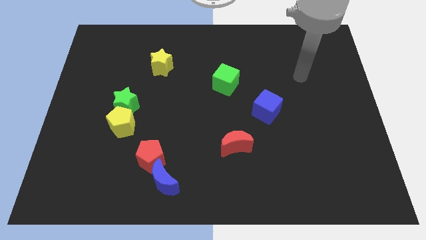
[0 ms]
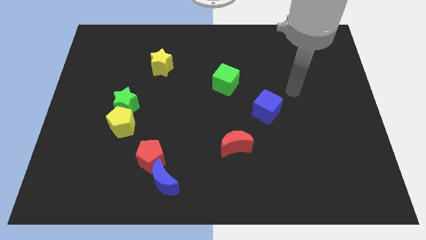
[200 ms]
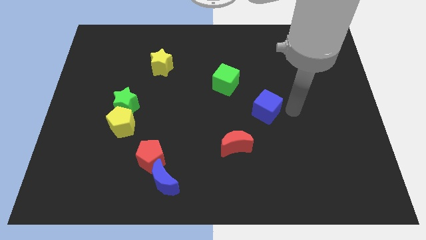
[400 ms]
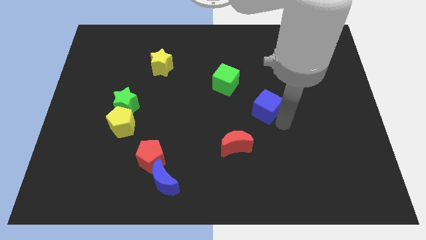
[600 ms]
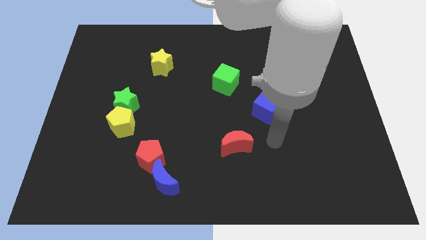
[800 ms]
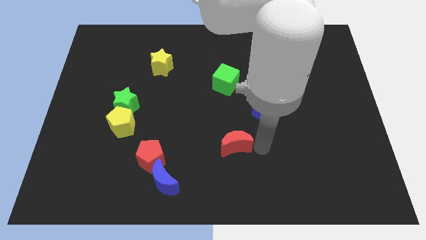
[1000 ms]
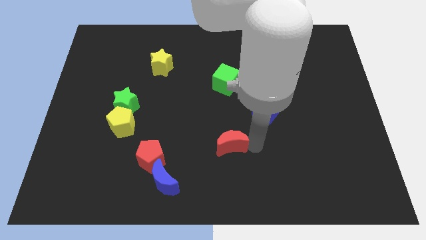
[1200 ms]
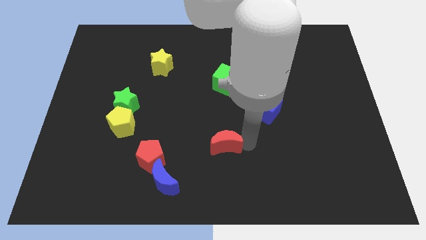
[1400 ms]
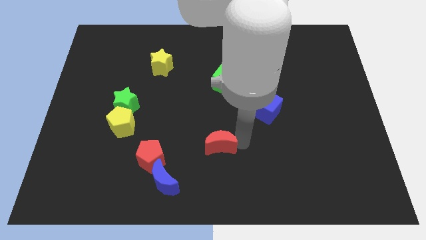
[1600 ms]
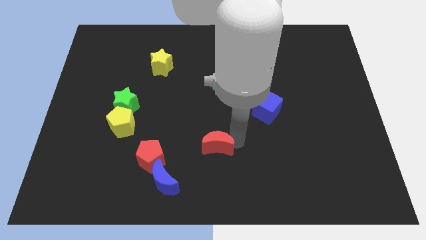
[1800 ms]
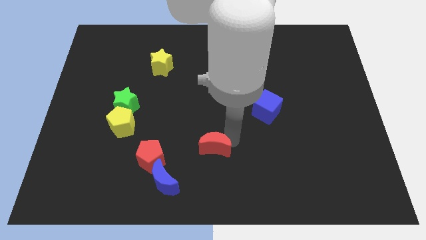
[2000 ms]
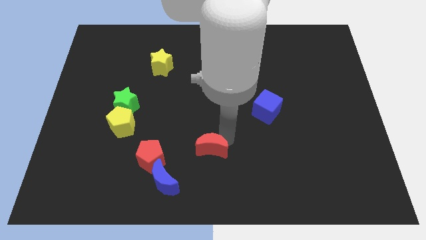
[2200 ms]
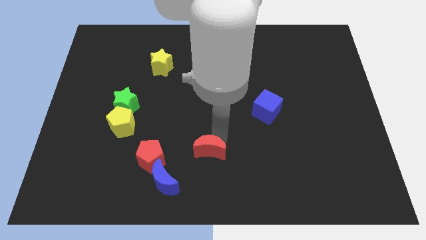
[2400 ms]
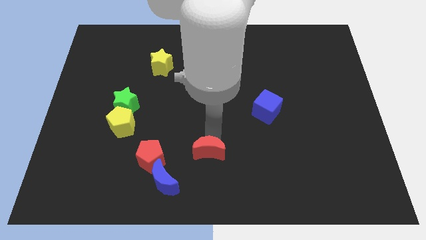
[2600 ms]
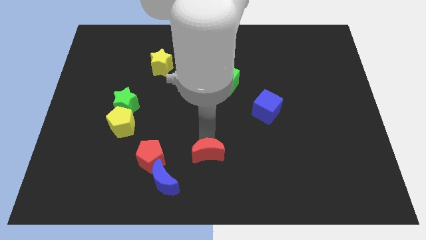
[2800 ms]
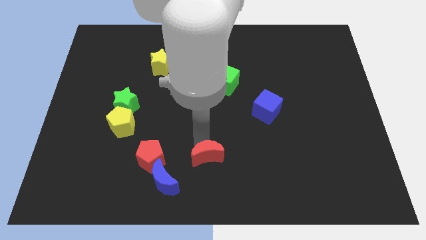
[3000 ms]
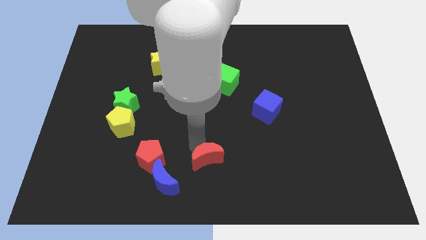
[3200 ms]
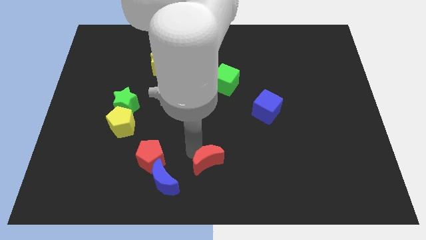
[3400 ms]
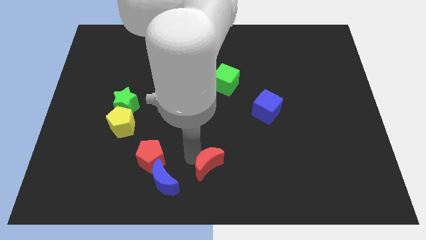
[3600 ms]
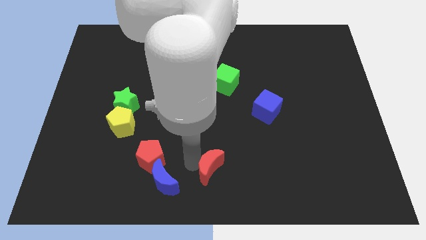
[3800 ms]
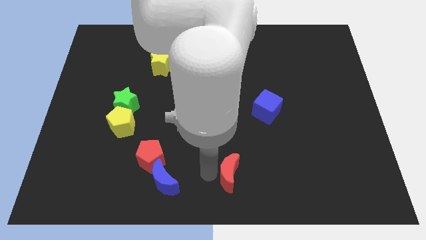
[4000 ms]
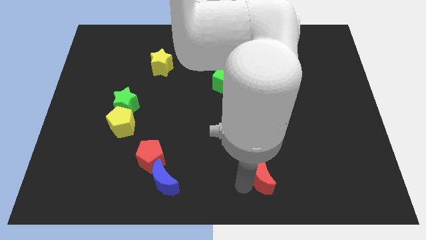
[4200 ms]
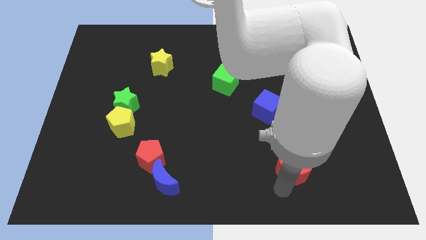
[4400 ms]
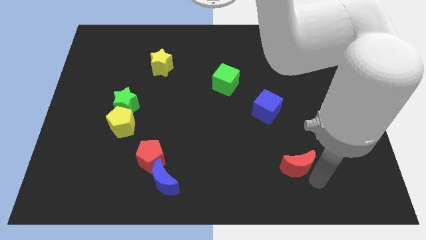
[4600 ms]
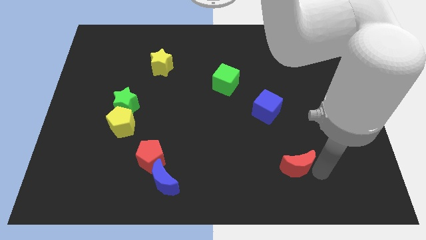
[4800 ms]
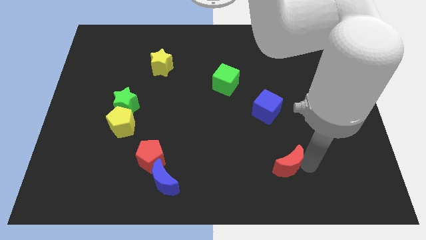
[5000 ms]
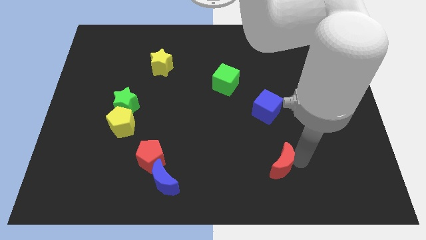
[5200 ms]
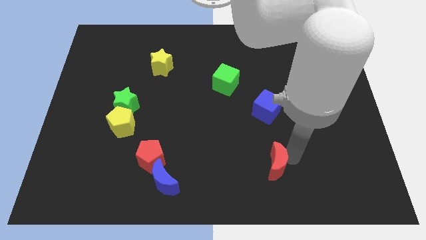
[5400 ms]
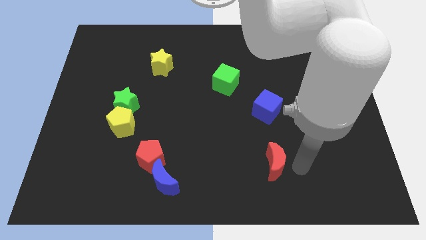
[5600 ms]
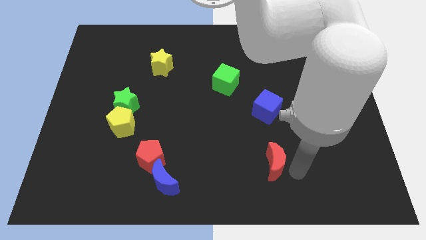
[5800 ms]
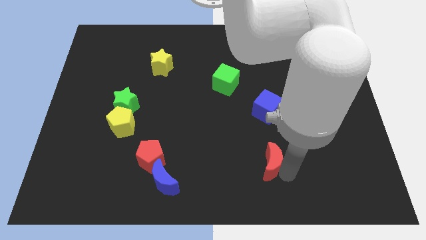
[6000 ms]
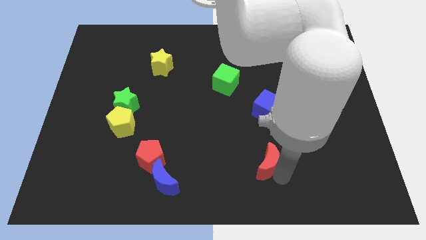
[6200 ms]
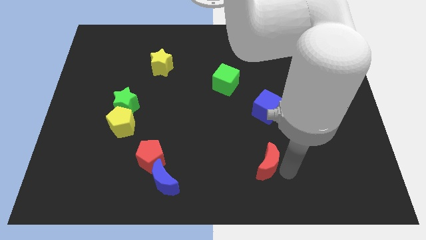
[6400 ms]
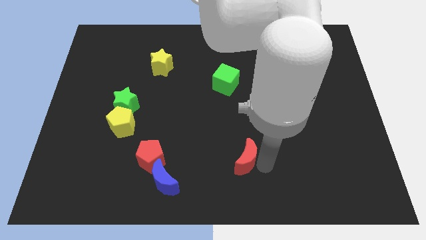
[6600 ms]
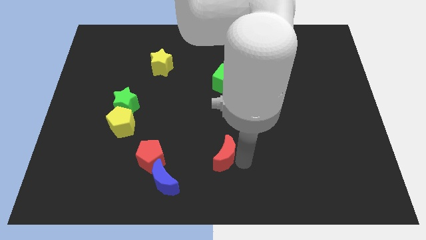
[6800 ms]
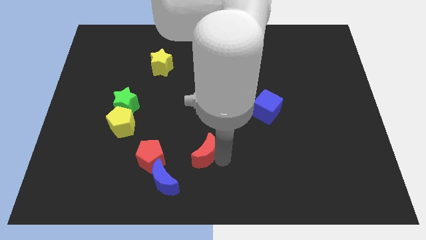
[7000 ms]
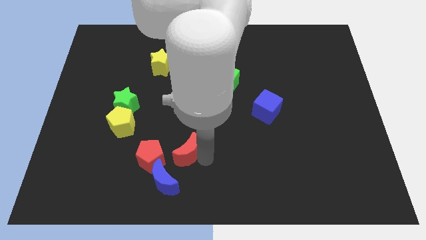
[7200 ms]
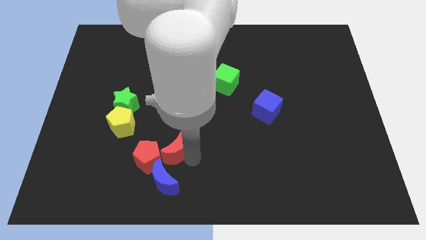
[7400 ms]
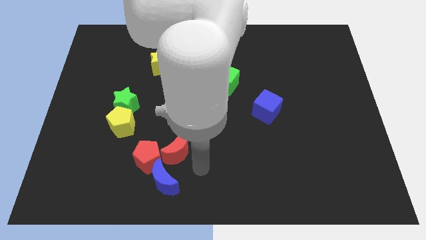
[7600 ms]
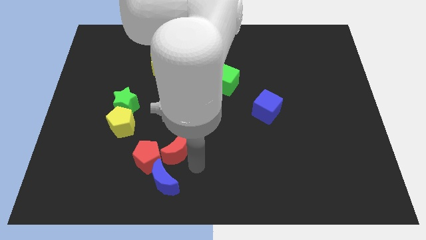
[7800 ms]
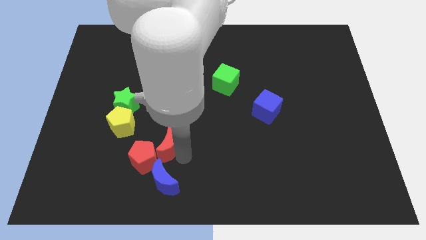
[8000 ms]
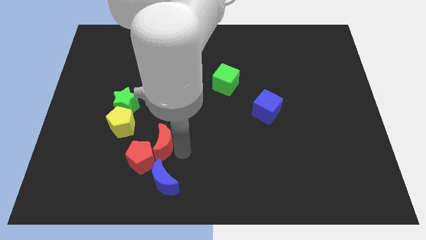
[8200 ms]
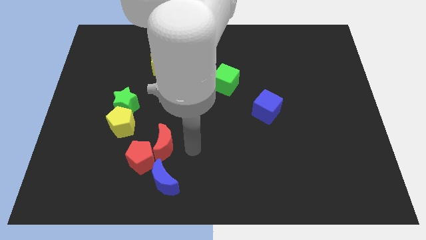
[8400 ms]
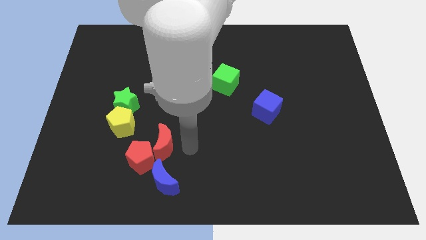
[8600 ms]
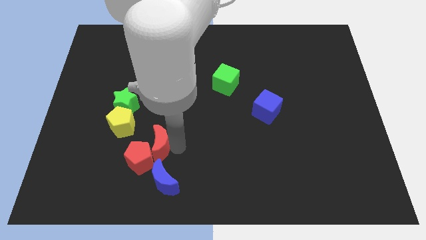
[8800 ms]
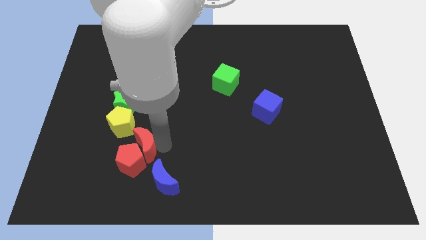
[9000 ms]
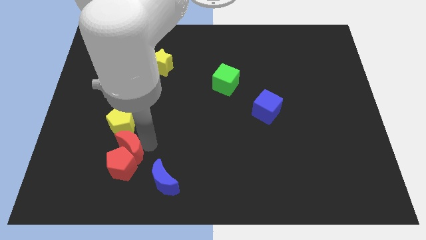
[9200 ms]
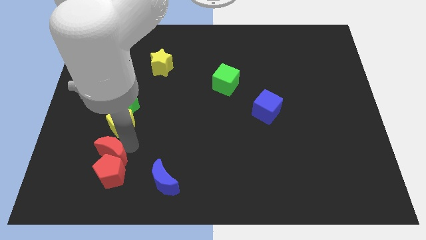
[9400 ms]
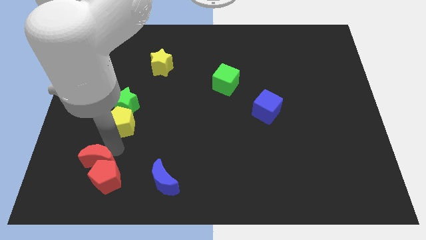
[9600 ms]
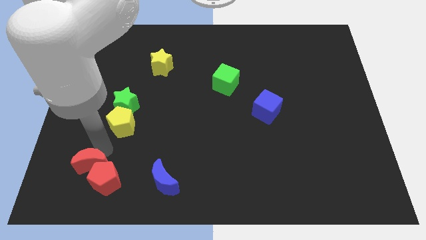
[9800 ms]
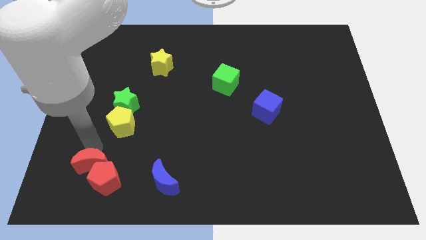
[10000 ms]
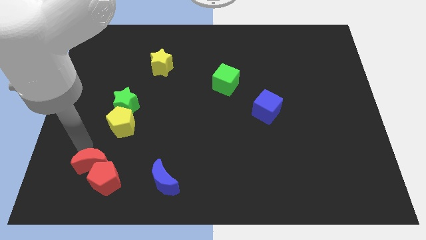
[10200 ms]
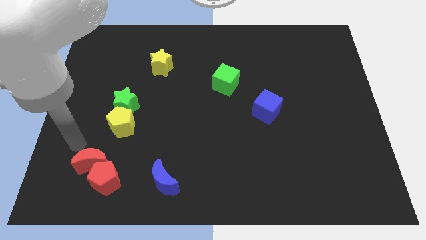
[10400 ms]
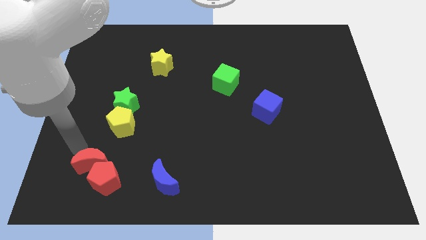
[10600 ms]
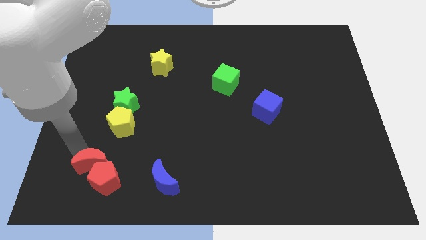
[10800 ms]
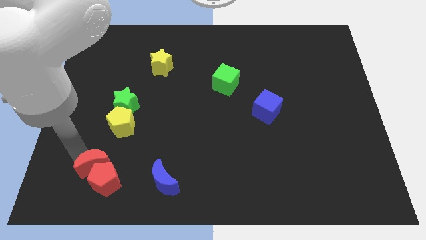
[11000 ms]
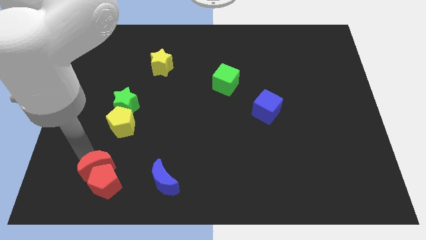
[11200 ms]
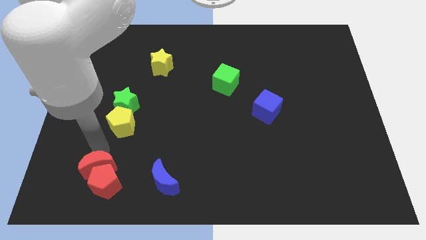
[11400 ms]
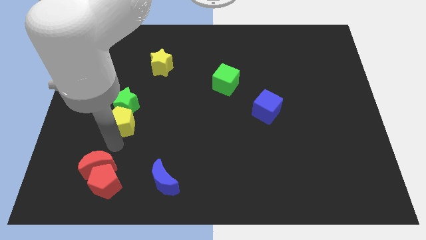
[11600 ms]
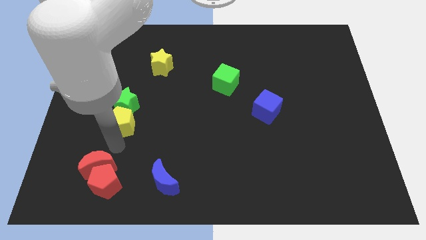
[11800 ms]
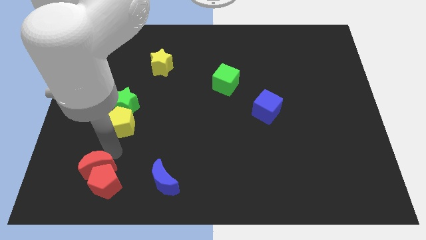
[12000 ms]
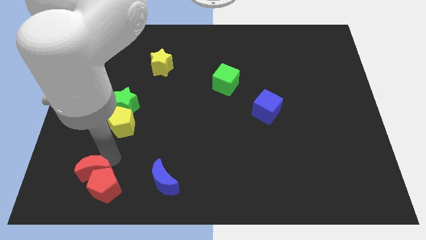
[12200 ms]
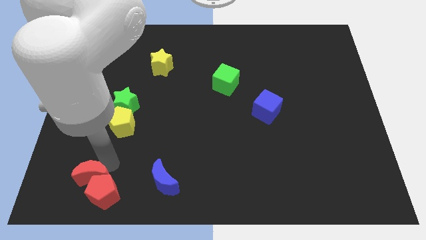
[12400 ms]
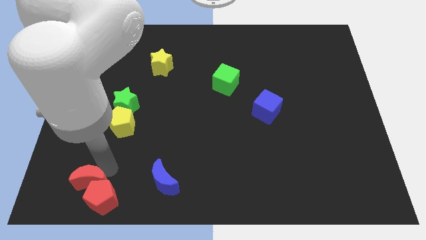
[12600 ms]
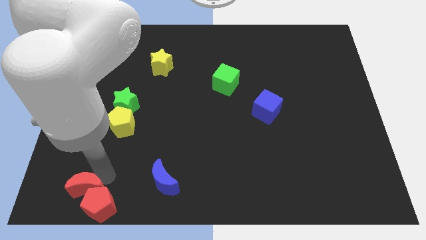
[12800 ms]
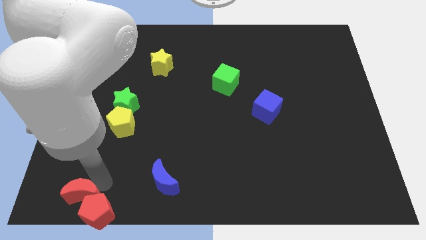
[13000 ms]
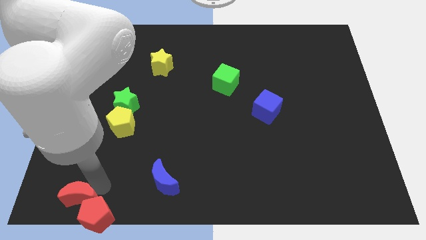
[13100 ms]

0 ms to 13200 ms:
push the red moon to the bottom left corner

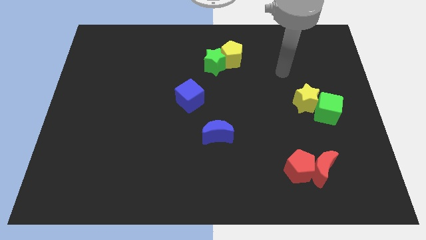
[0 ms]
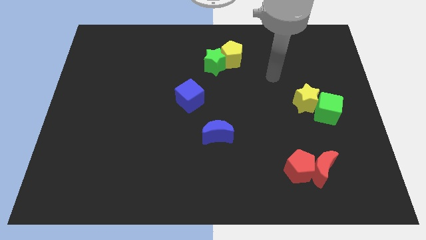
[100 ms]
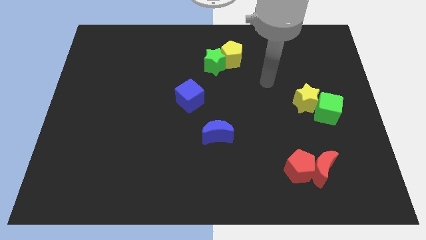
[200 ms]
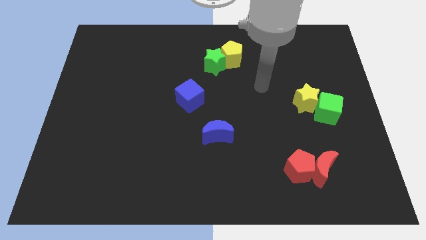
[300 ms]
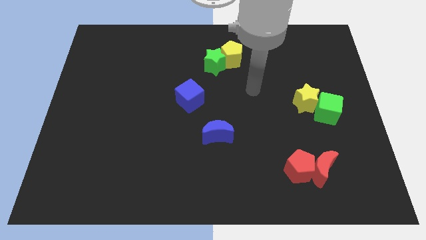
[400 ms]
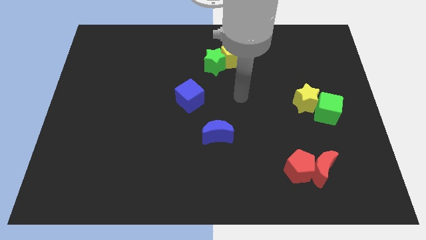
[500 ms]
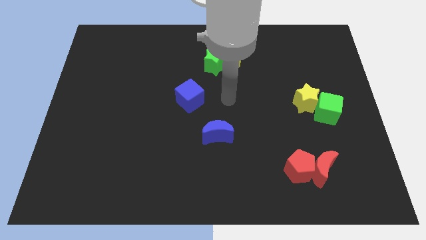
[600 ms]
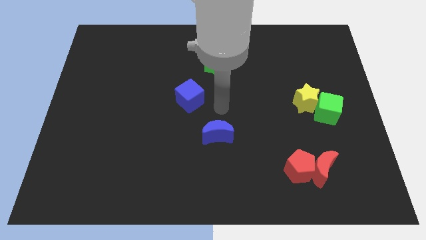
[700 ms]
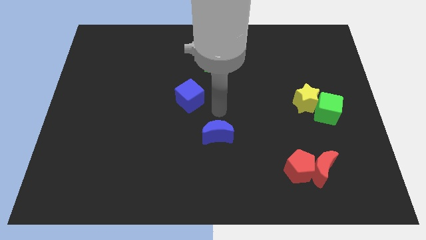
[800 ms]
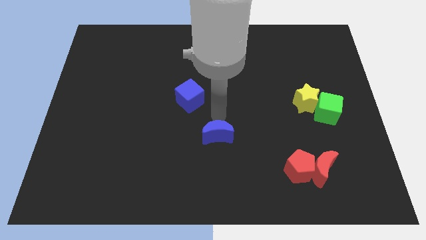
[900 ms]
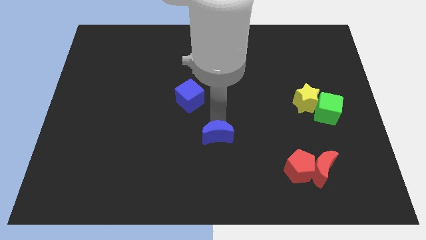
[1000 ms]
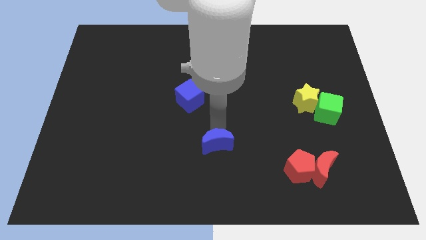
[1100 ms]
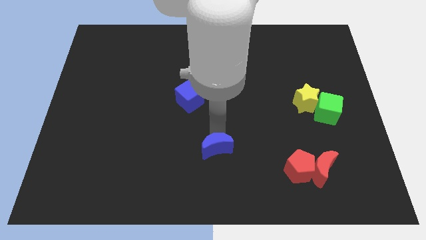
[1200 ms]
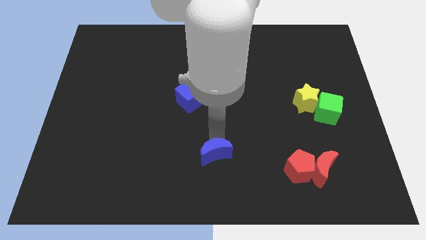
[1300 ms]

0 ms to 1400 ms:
move the blue moon to the bottom
